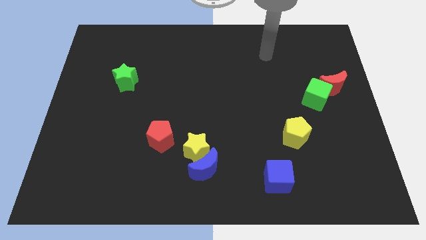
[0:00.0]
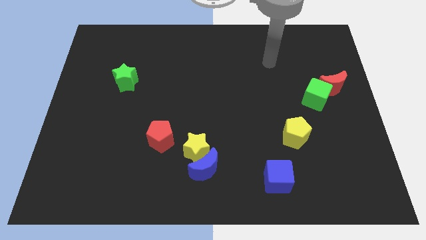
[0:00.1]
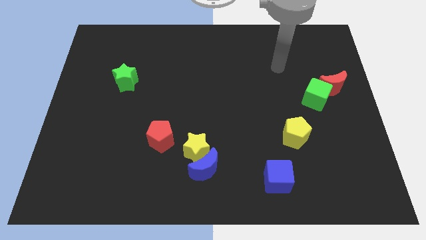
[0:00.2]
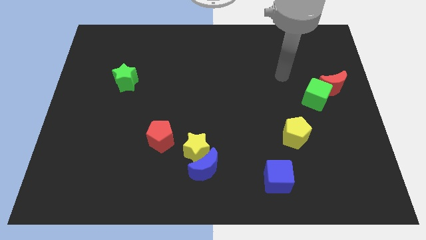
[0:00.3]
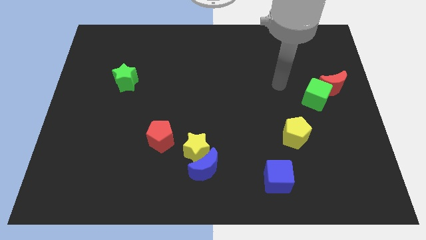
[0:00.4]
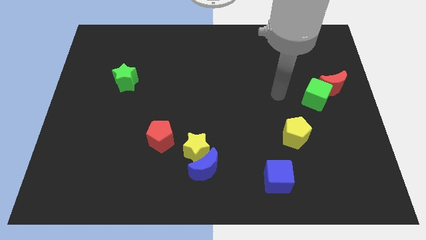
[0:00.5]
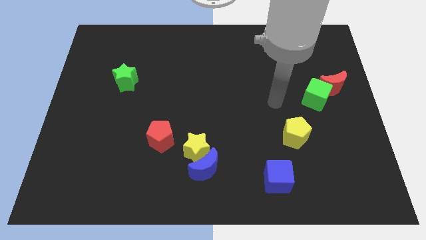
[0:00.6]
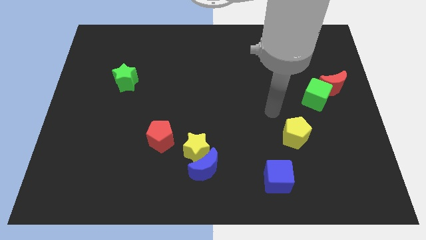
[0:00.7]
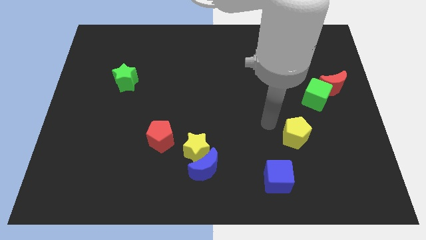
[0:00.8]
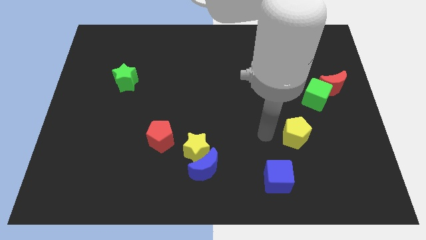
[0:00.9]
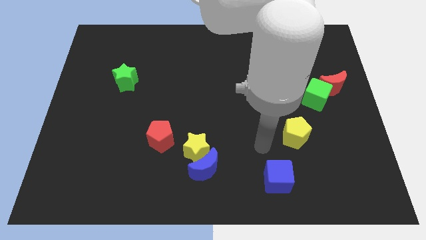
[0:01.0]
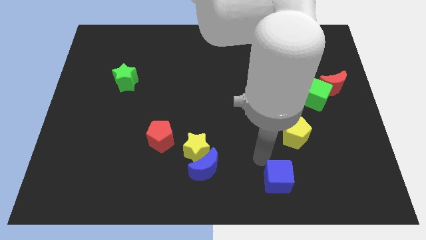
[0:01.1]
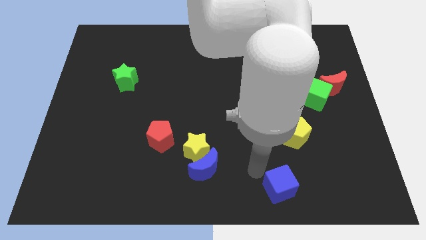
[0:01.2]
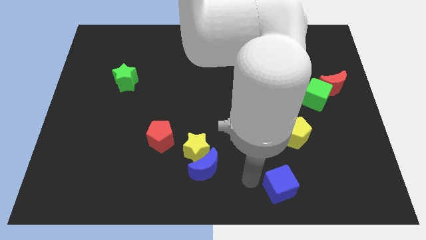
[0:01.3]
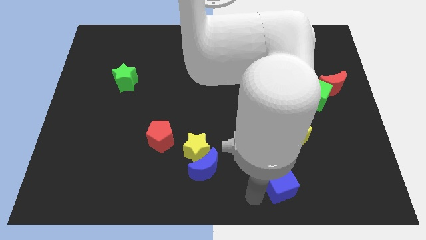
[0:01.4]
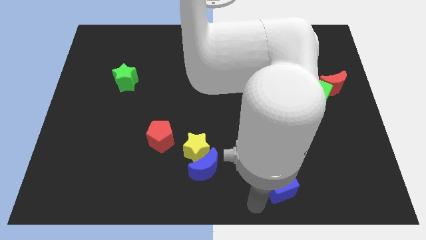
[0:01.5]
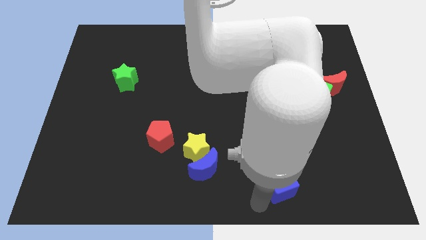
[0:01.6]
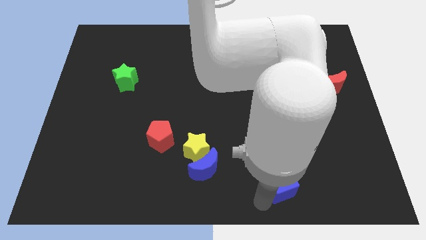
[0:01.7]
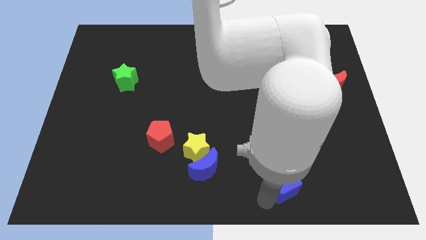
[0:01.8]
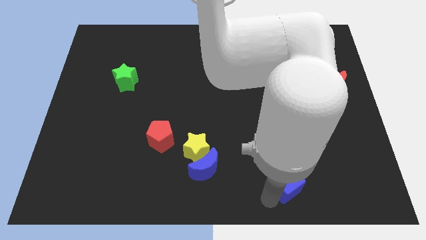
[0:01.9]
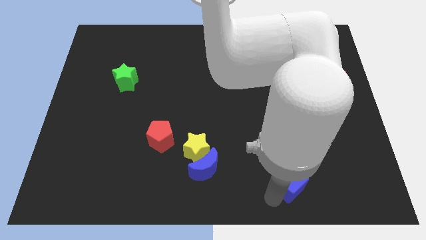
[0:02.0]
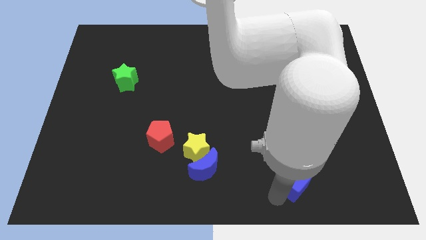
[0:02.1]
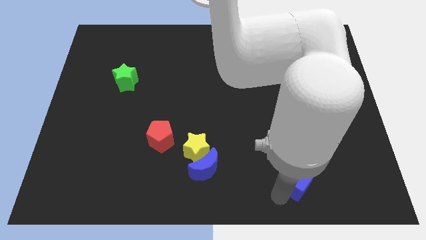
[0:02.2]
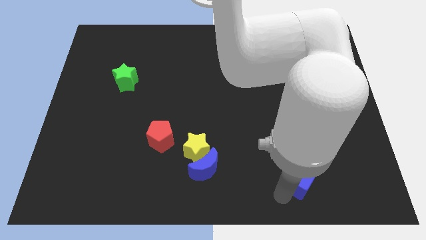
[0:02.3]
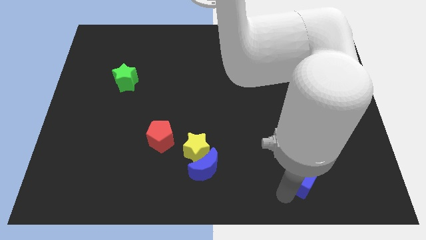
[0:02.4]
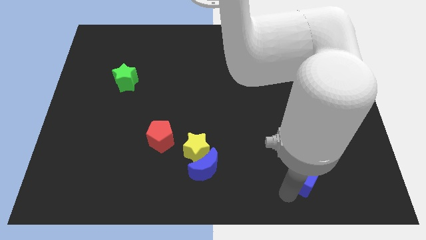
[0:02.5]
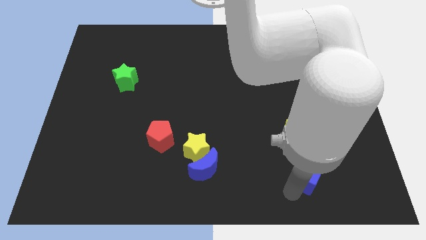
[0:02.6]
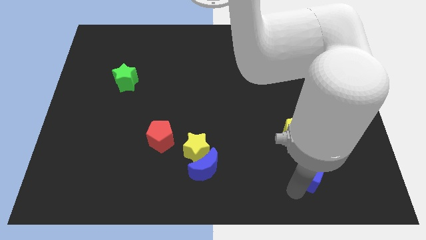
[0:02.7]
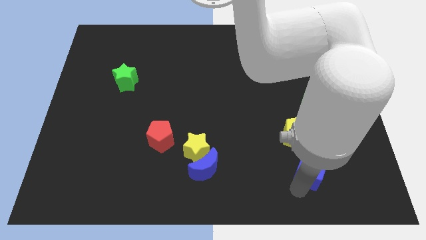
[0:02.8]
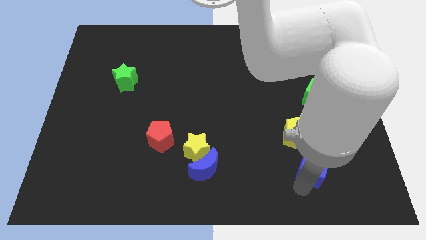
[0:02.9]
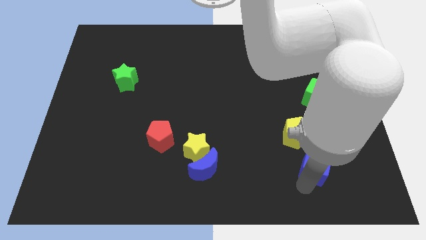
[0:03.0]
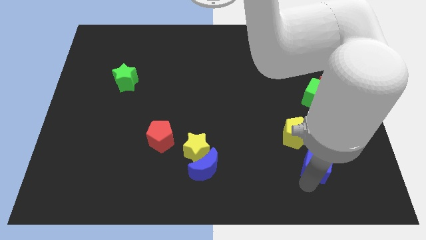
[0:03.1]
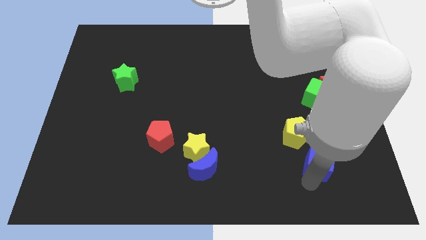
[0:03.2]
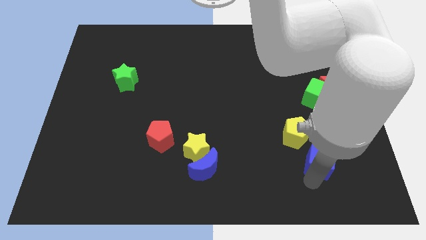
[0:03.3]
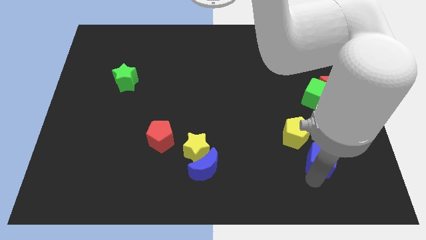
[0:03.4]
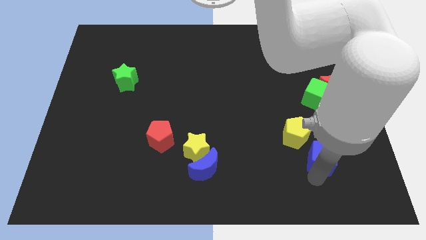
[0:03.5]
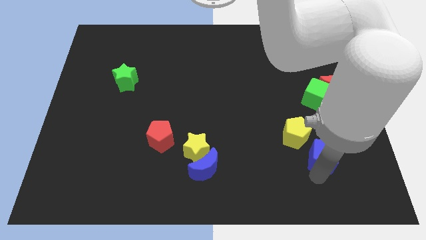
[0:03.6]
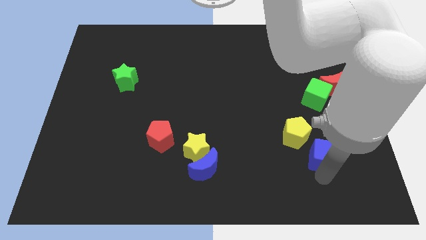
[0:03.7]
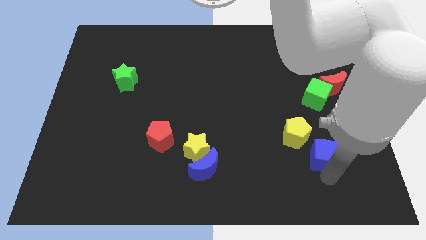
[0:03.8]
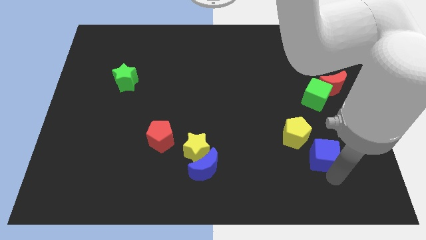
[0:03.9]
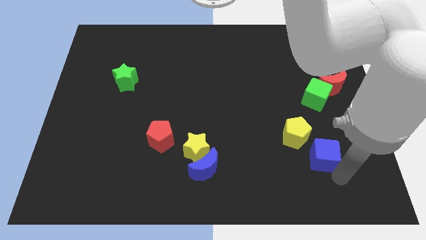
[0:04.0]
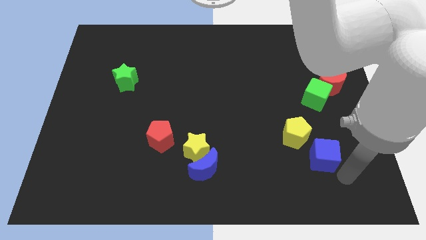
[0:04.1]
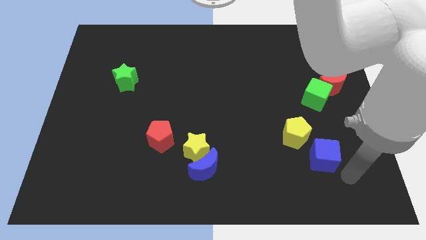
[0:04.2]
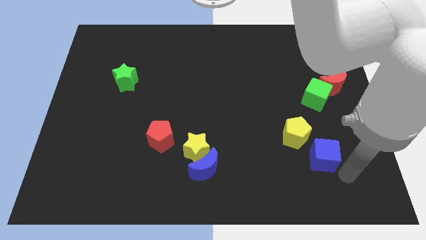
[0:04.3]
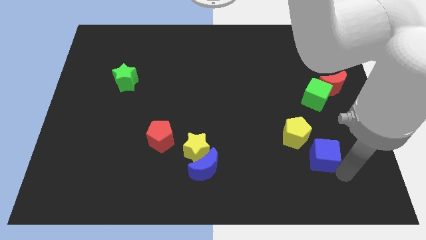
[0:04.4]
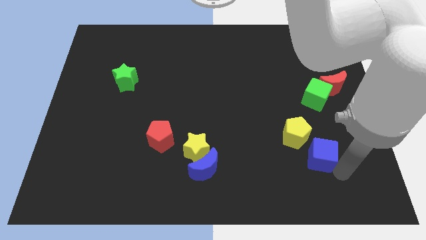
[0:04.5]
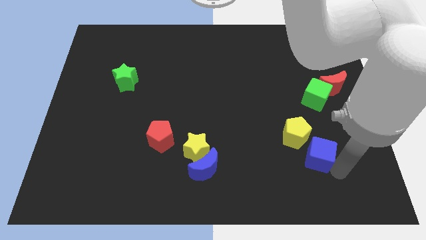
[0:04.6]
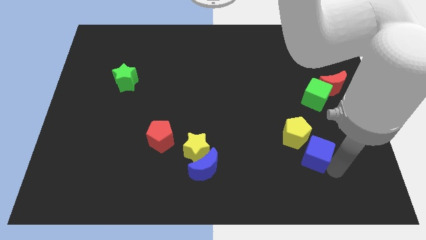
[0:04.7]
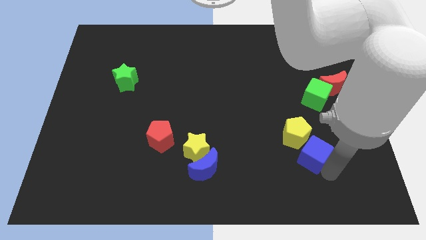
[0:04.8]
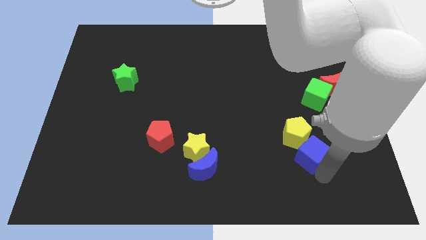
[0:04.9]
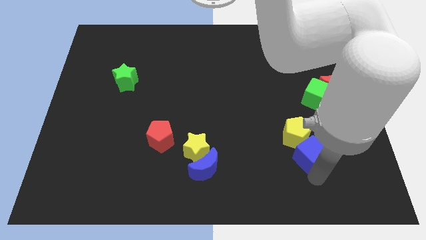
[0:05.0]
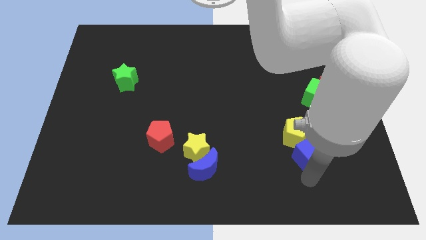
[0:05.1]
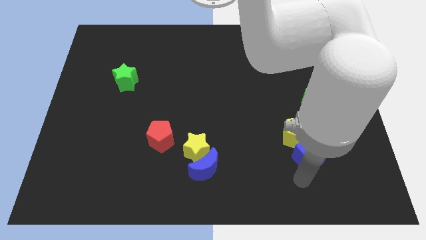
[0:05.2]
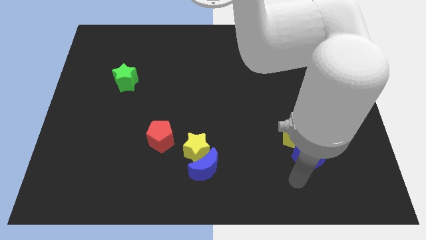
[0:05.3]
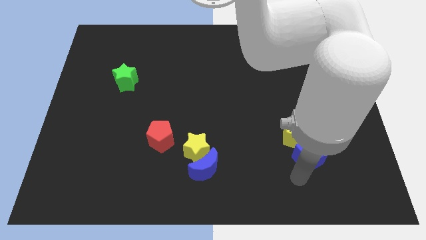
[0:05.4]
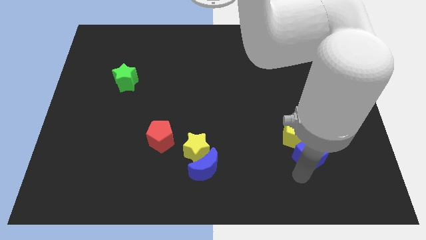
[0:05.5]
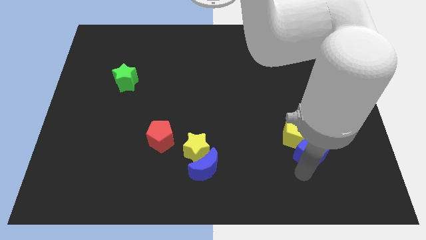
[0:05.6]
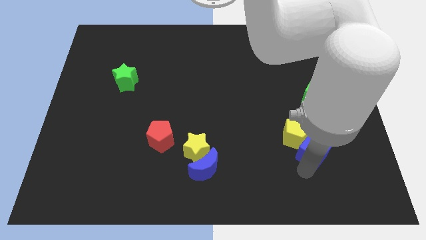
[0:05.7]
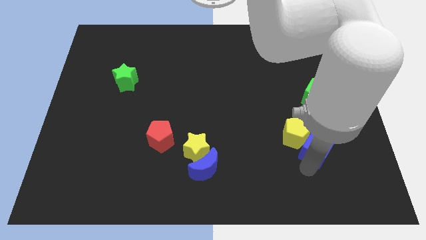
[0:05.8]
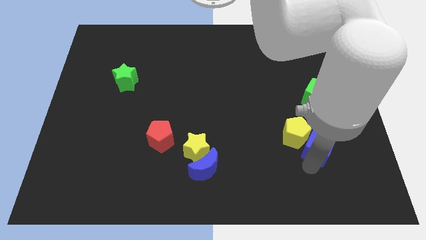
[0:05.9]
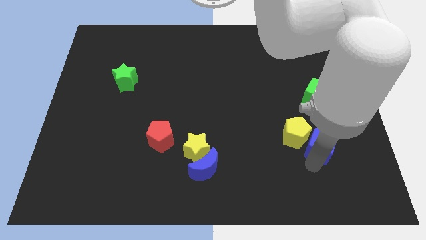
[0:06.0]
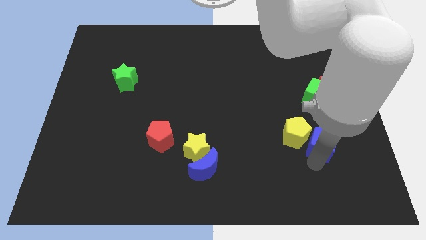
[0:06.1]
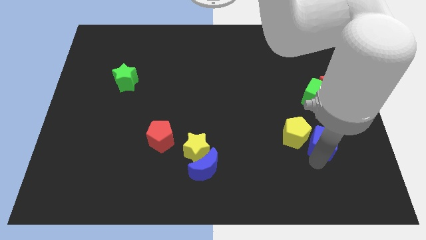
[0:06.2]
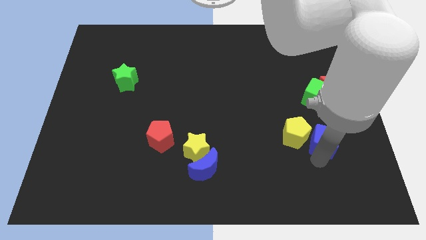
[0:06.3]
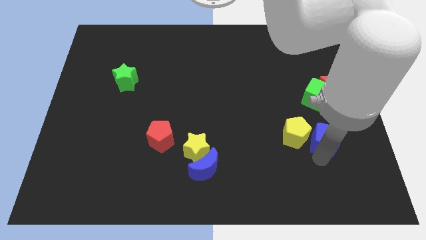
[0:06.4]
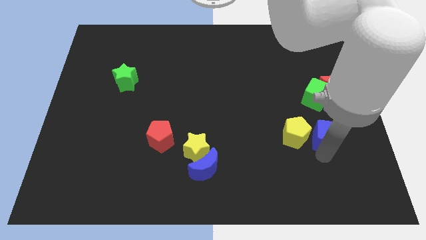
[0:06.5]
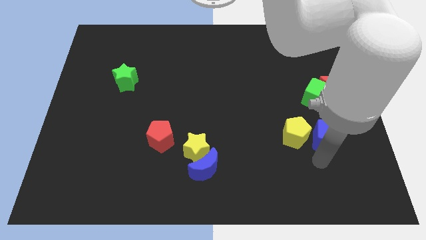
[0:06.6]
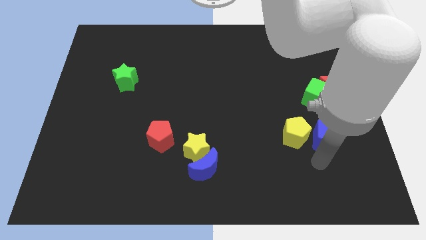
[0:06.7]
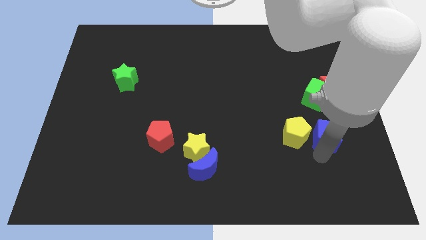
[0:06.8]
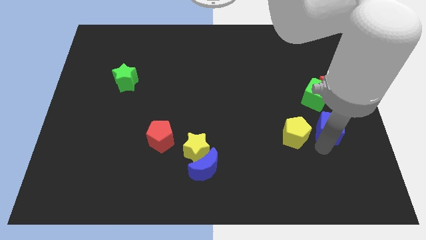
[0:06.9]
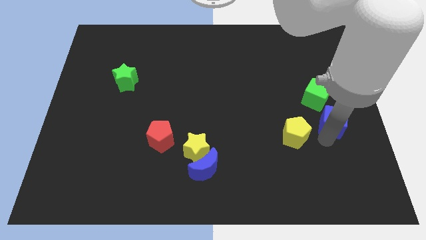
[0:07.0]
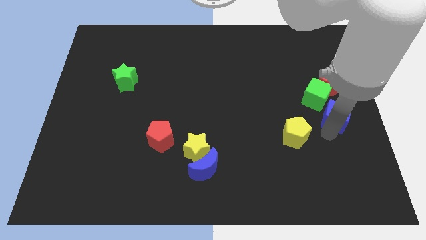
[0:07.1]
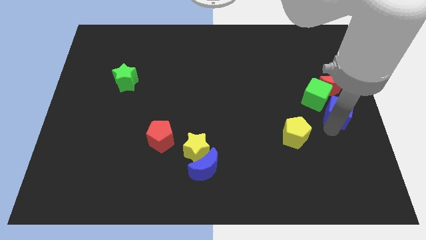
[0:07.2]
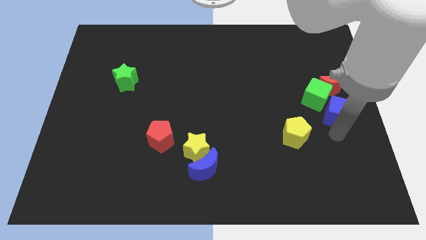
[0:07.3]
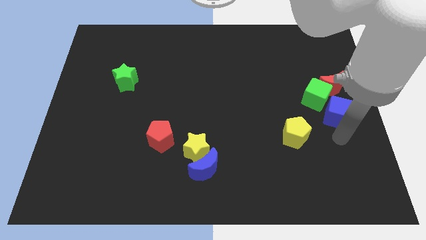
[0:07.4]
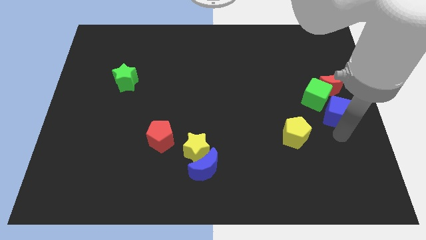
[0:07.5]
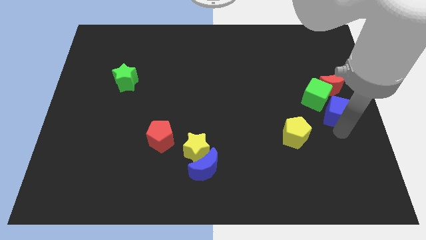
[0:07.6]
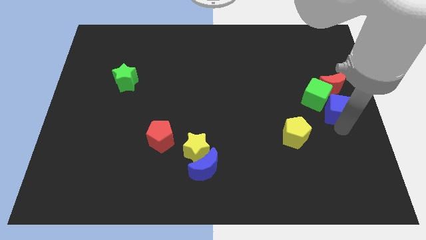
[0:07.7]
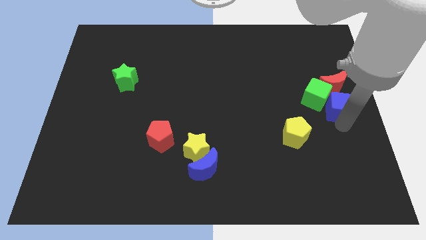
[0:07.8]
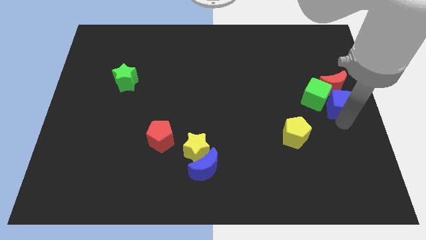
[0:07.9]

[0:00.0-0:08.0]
push the blue cube close to the red moon
